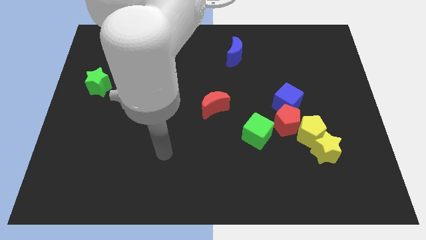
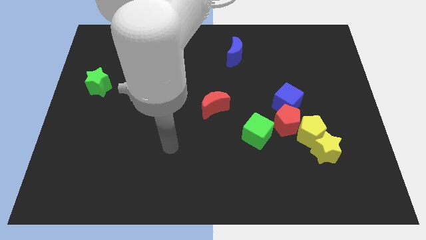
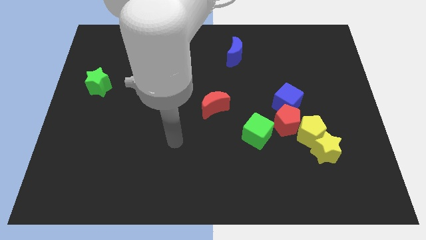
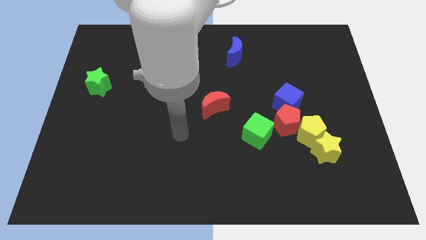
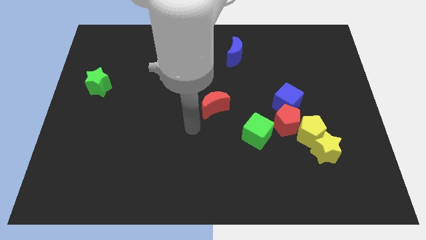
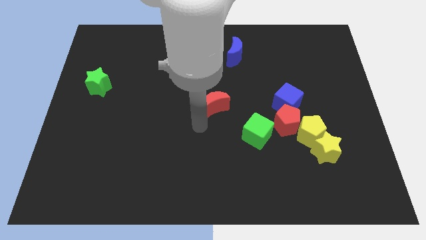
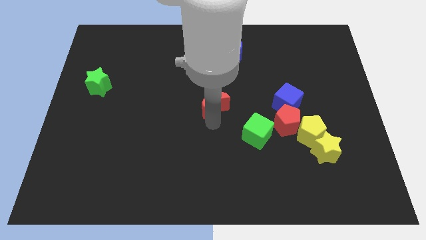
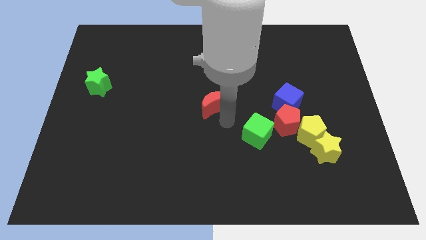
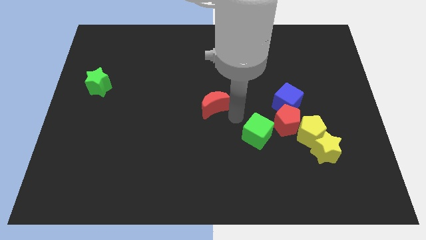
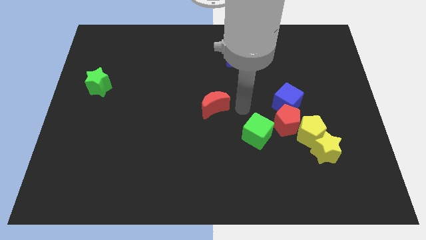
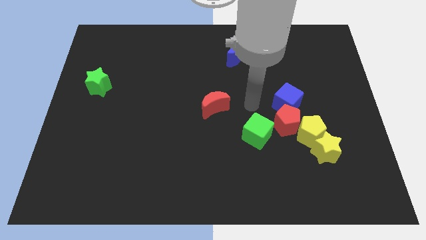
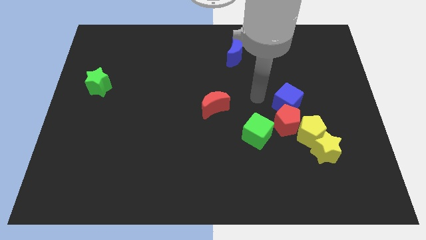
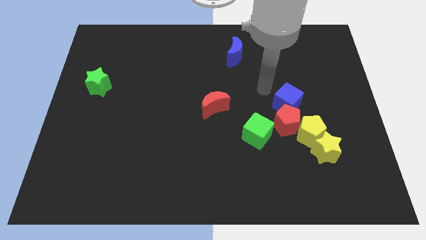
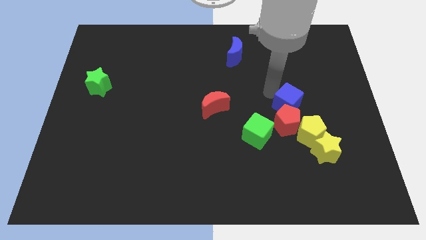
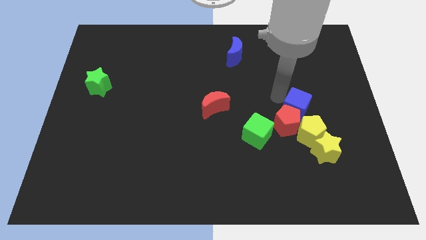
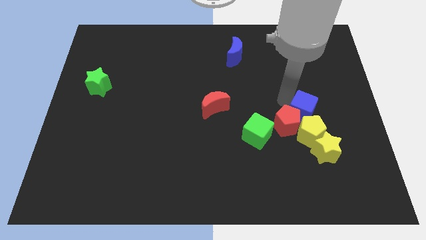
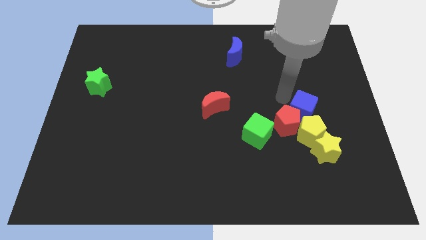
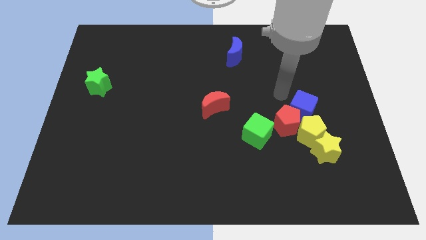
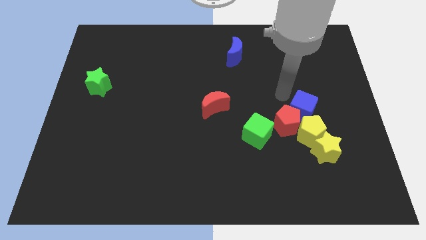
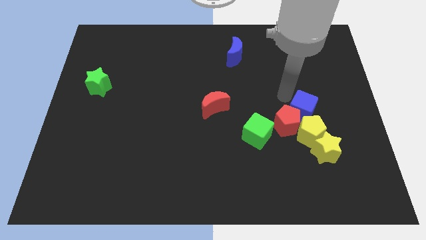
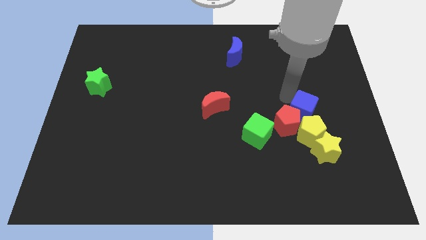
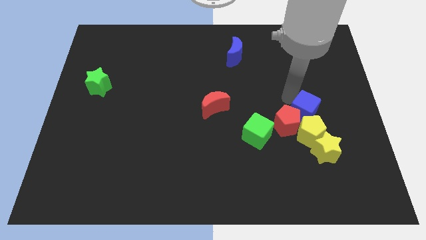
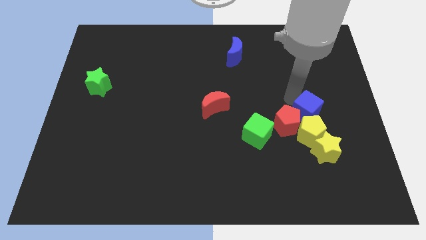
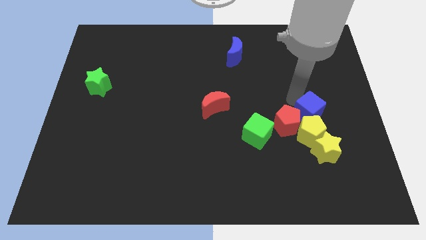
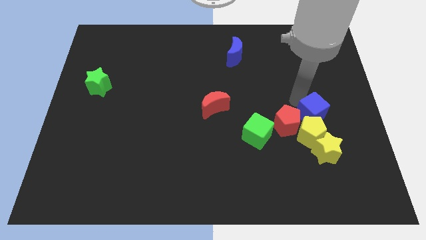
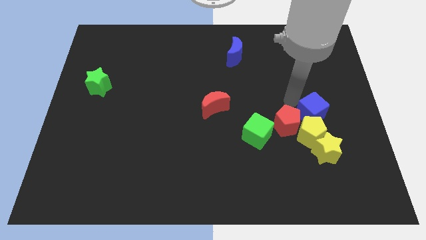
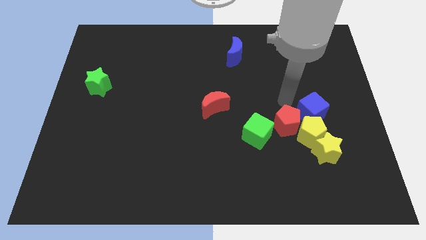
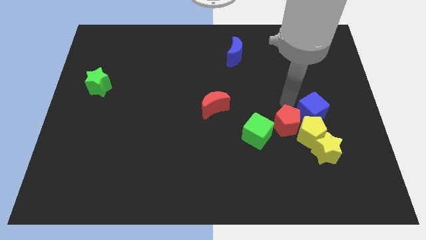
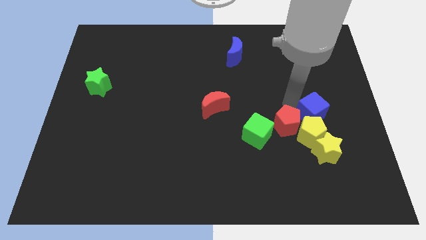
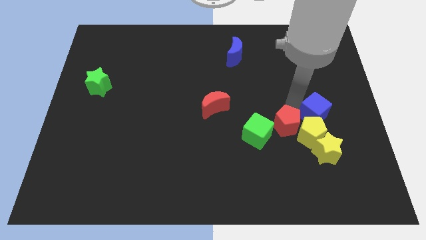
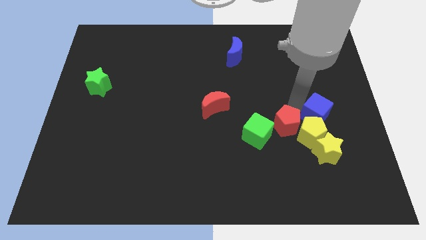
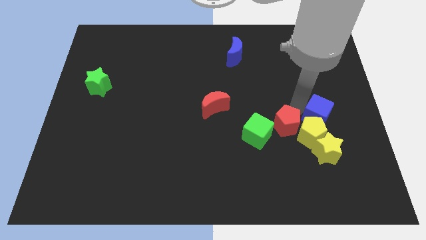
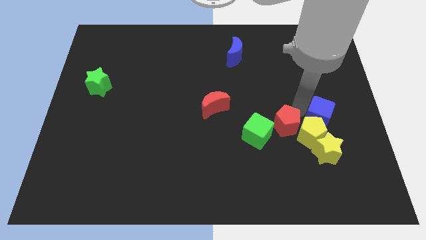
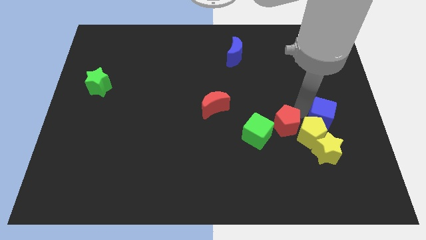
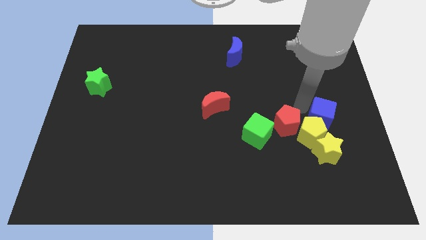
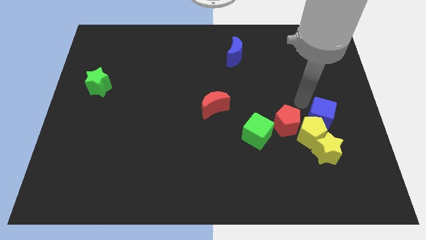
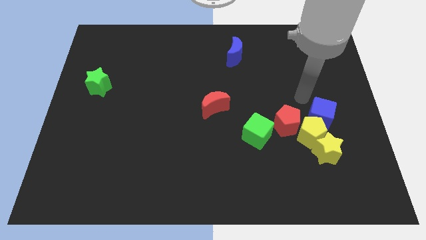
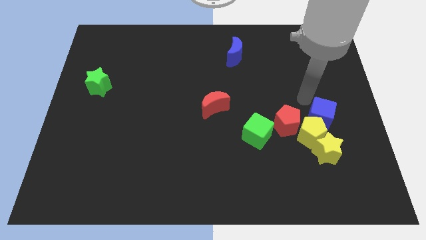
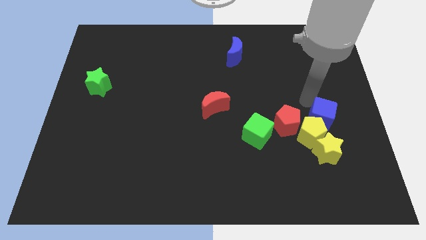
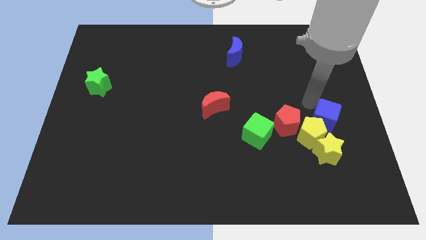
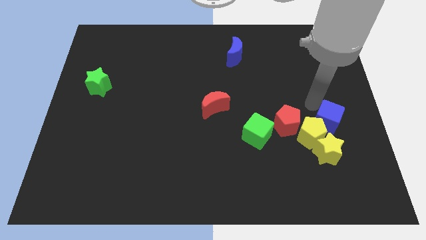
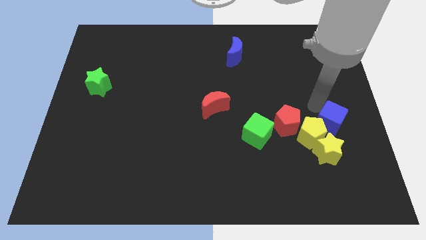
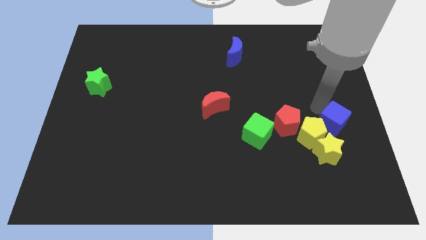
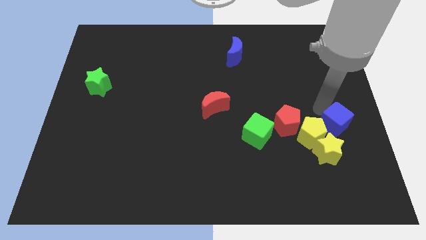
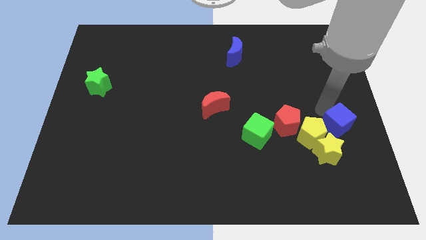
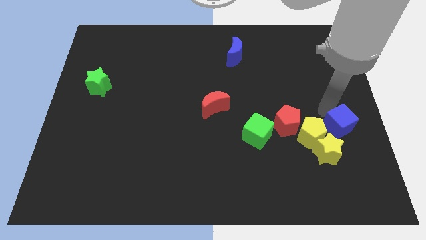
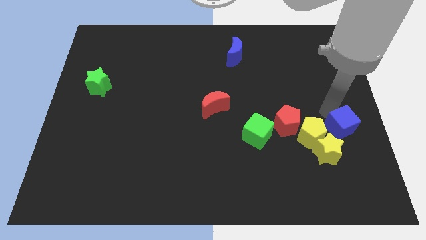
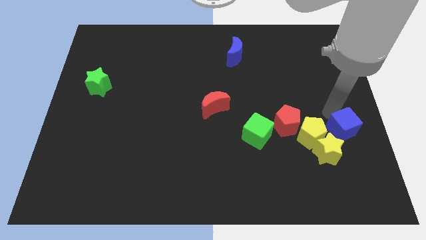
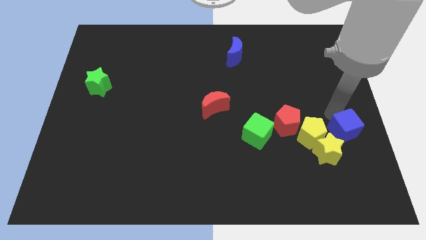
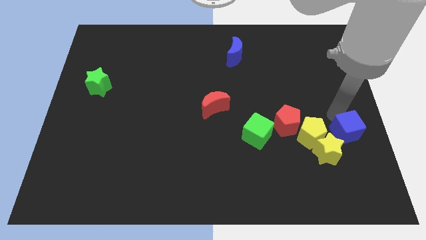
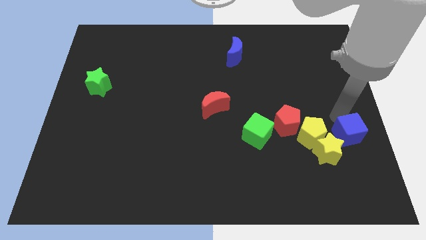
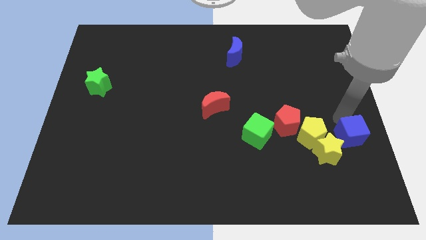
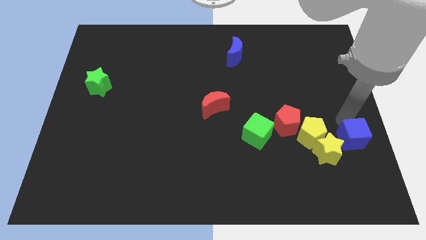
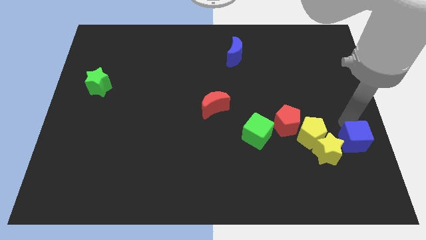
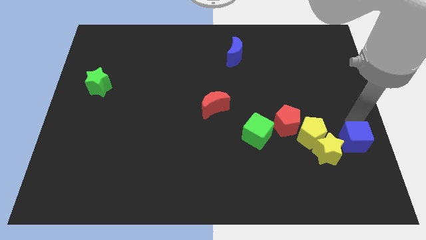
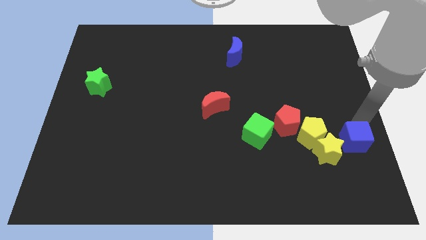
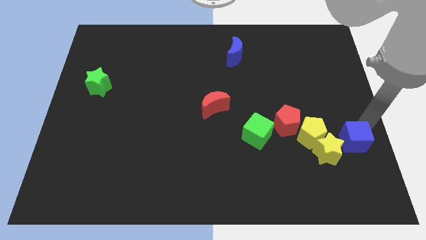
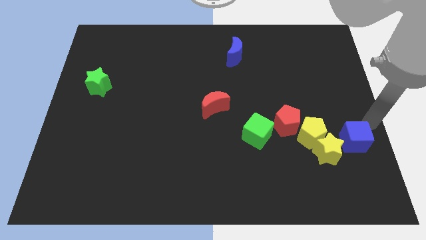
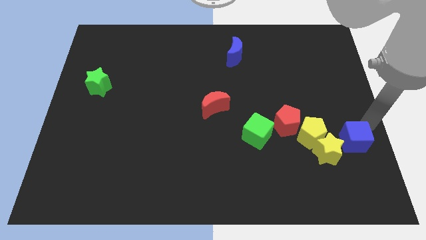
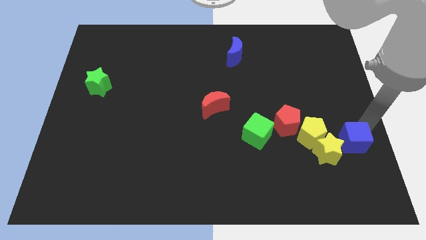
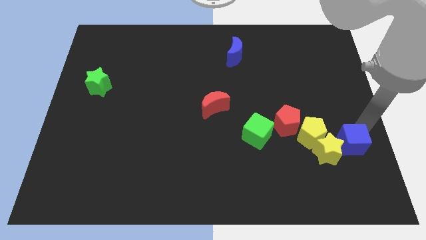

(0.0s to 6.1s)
push the blue cube diagonally down and to the right of the yellow pentagon
